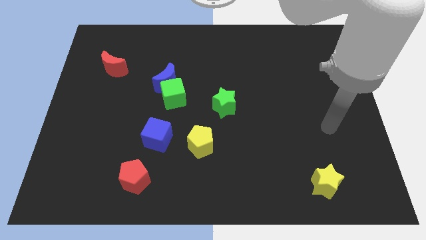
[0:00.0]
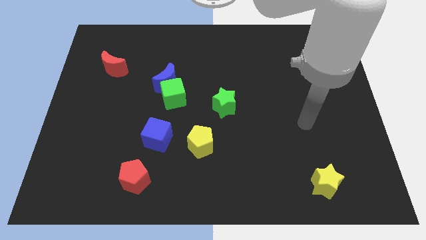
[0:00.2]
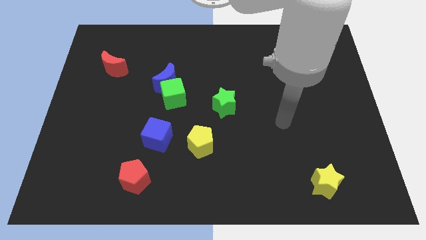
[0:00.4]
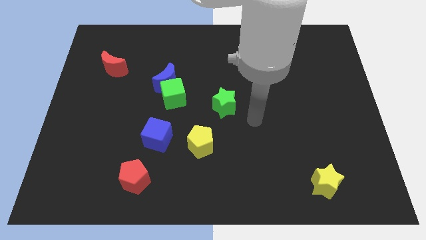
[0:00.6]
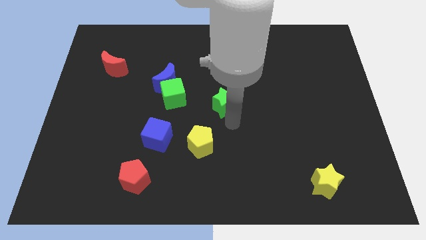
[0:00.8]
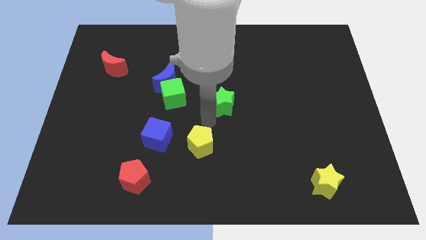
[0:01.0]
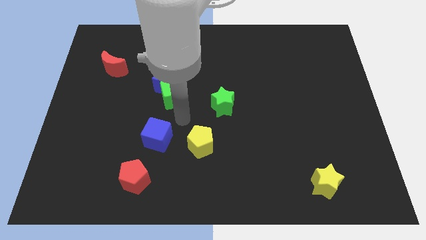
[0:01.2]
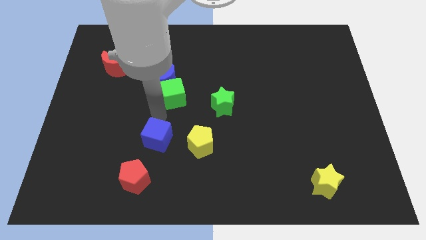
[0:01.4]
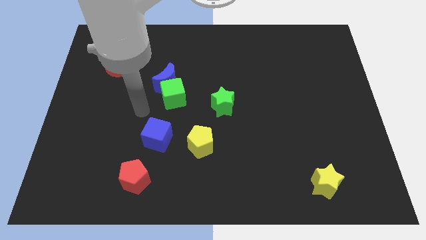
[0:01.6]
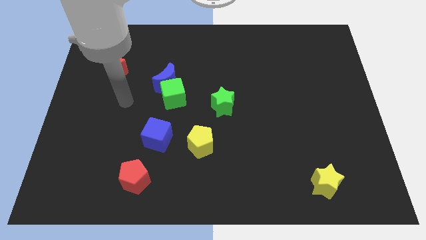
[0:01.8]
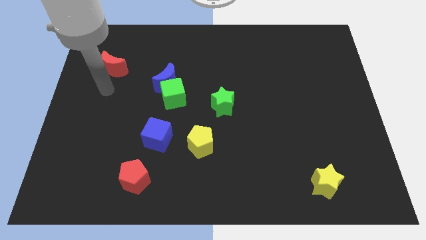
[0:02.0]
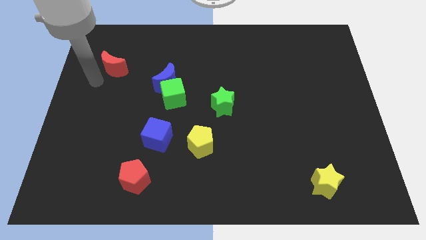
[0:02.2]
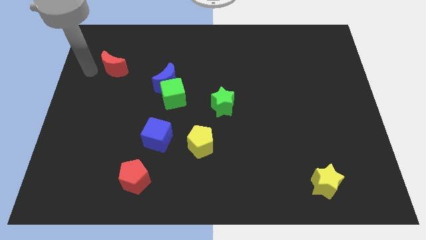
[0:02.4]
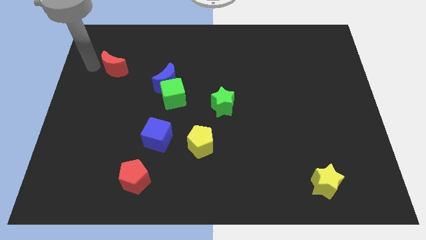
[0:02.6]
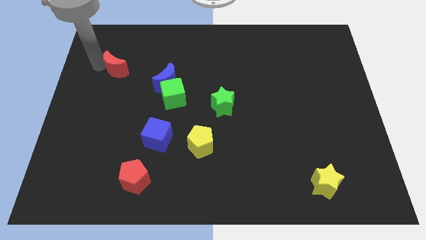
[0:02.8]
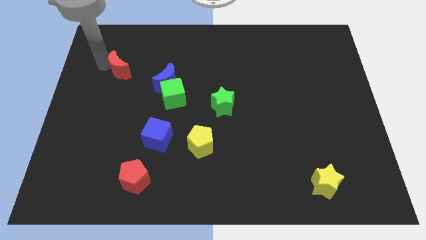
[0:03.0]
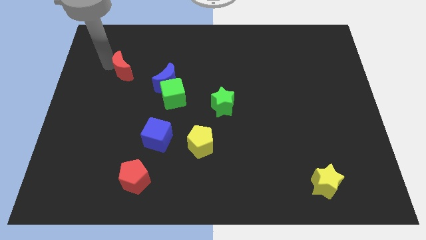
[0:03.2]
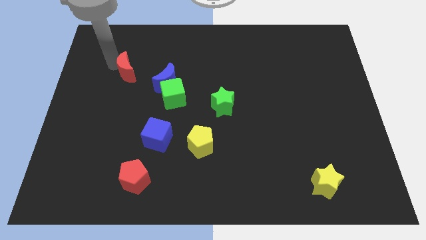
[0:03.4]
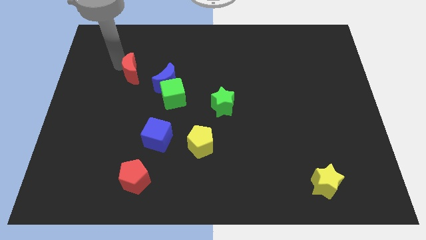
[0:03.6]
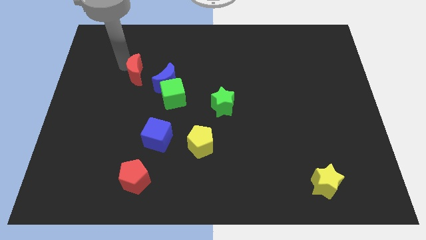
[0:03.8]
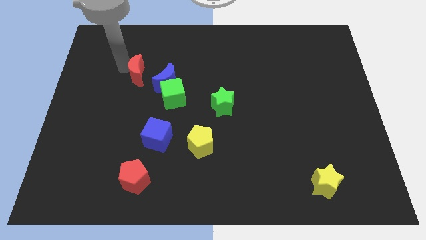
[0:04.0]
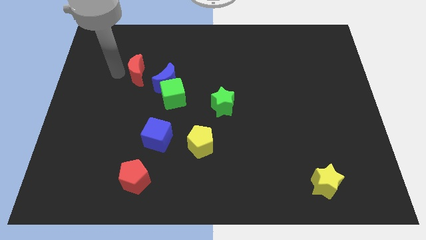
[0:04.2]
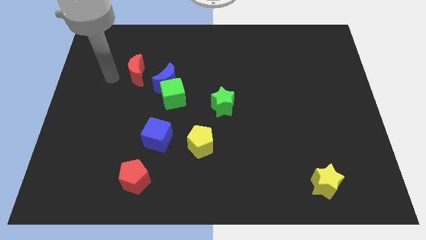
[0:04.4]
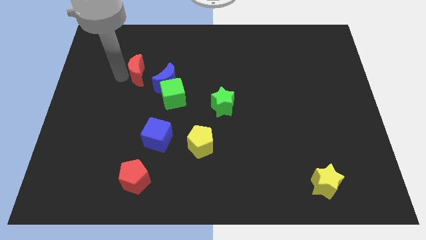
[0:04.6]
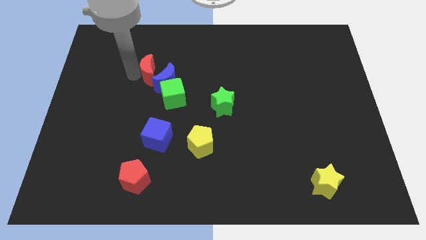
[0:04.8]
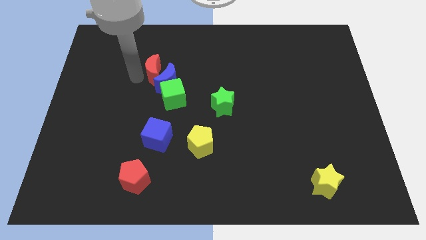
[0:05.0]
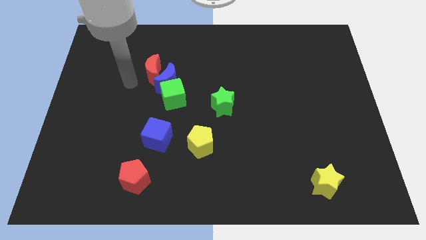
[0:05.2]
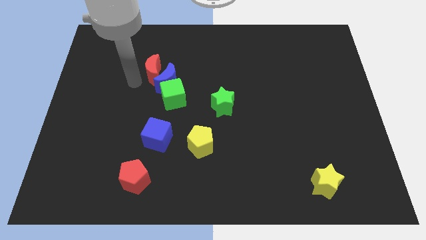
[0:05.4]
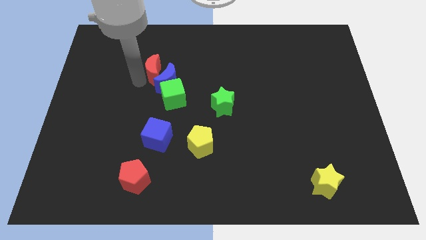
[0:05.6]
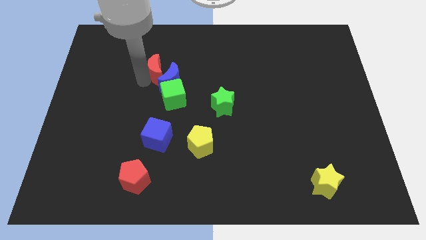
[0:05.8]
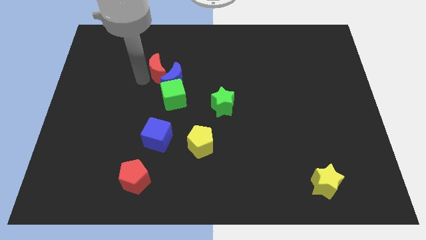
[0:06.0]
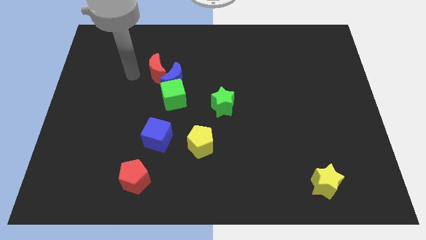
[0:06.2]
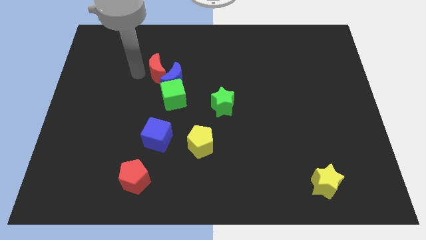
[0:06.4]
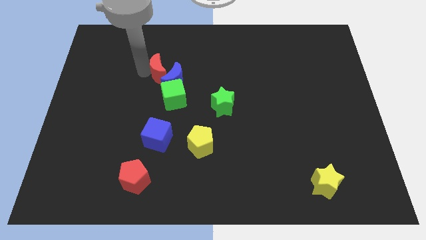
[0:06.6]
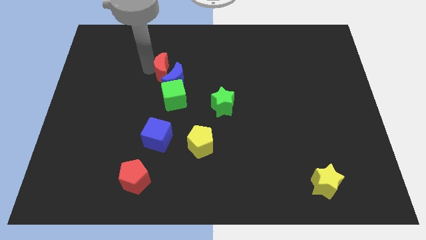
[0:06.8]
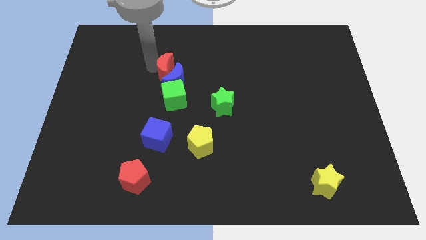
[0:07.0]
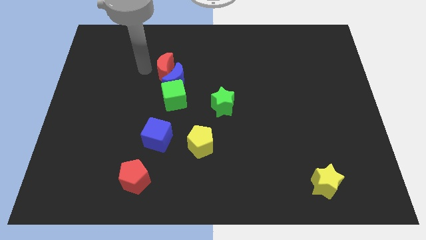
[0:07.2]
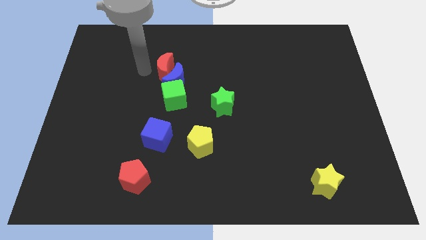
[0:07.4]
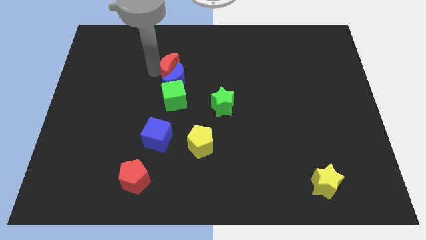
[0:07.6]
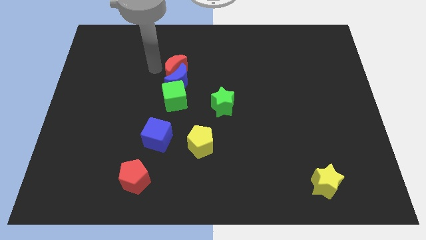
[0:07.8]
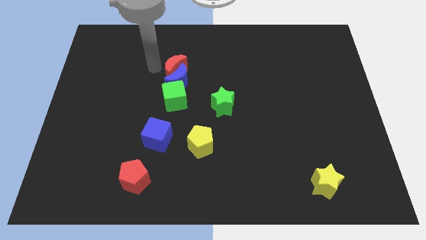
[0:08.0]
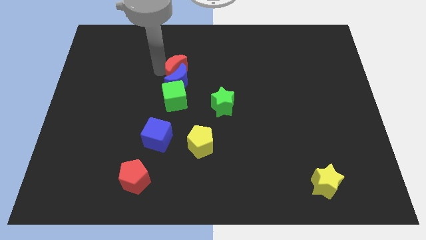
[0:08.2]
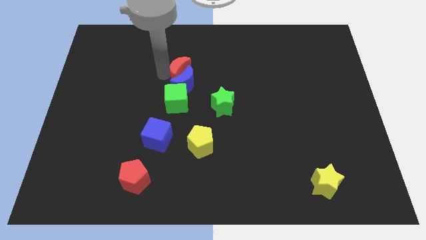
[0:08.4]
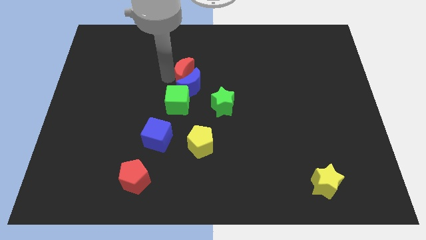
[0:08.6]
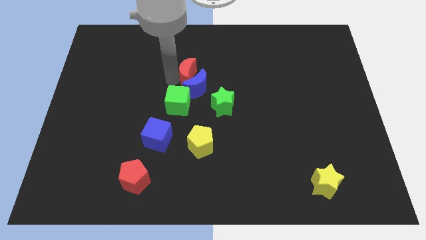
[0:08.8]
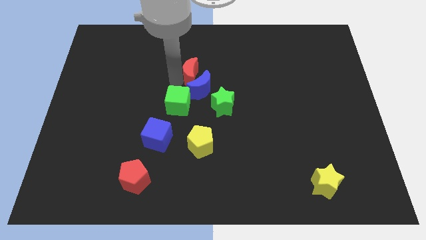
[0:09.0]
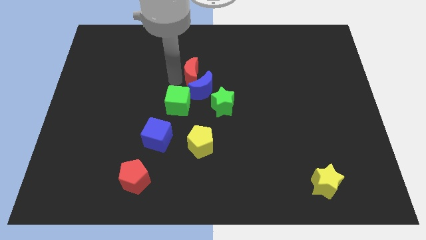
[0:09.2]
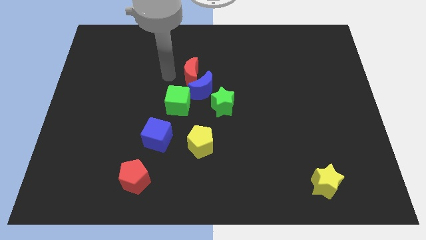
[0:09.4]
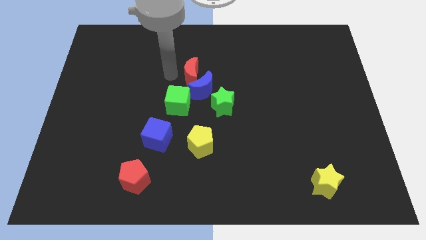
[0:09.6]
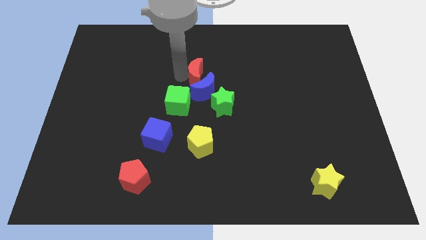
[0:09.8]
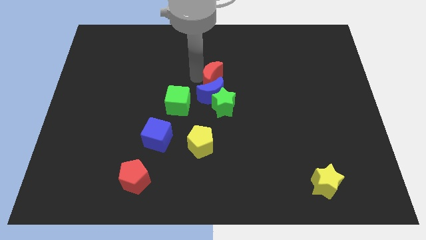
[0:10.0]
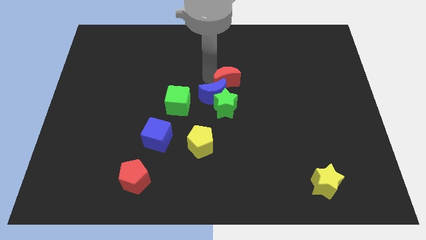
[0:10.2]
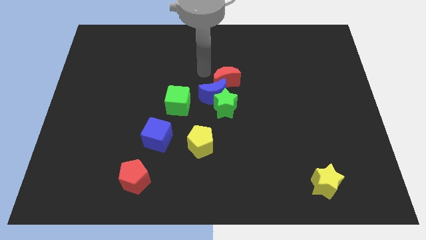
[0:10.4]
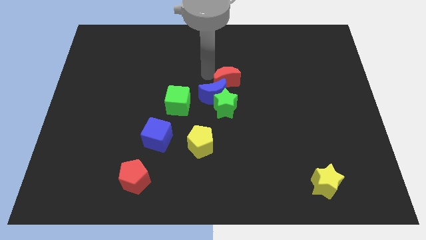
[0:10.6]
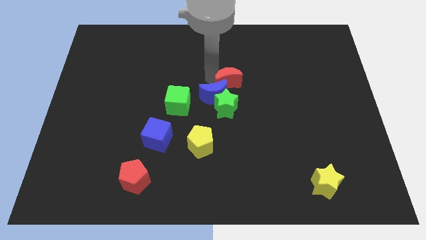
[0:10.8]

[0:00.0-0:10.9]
slide the red moon to the top right of the green star

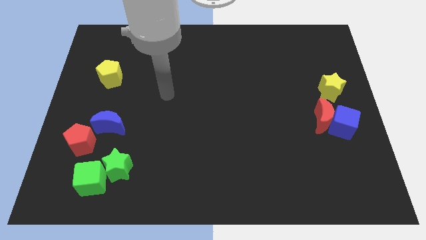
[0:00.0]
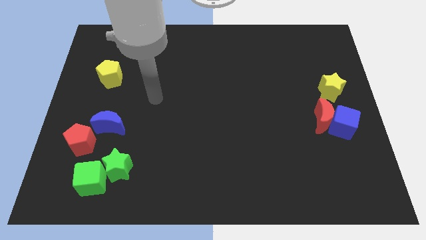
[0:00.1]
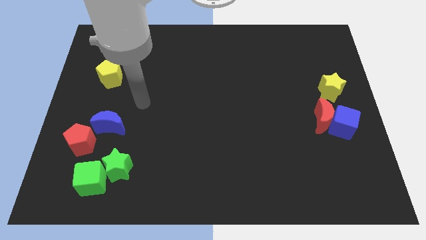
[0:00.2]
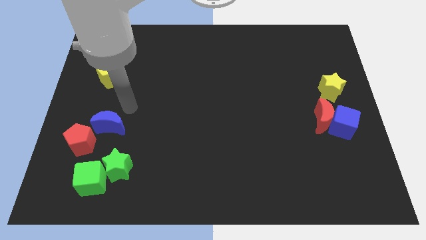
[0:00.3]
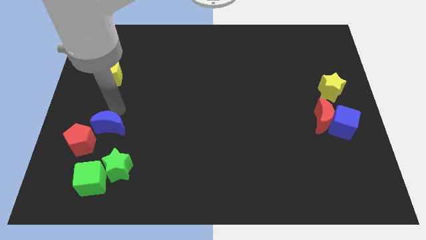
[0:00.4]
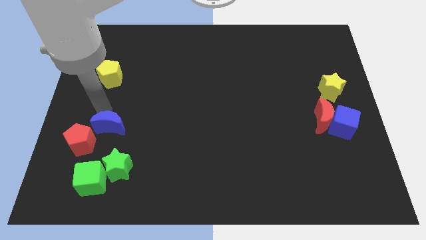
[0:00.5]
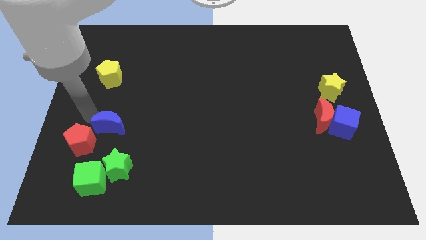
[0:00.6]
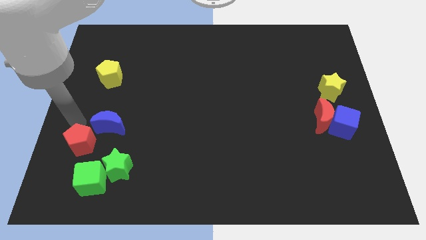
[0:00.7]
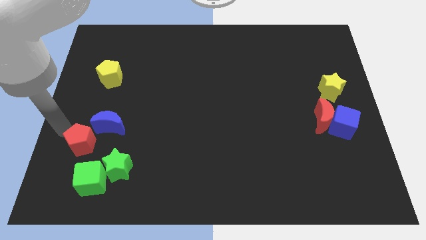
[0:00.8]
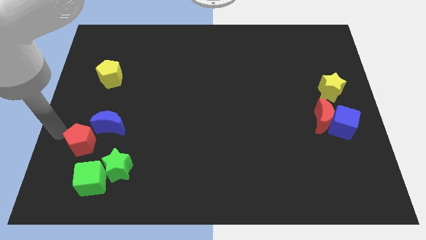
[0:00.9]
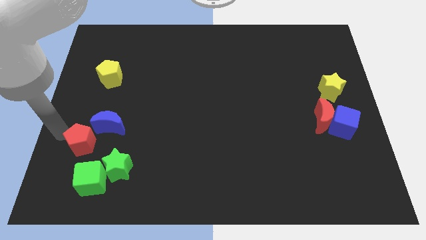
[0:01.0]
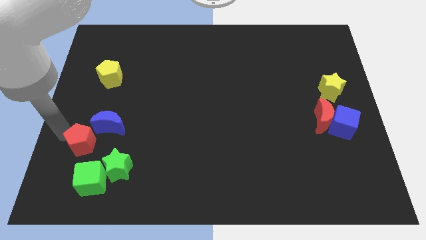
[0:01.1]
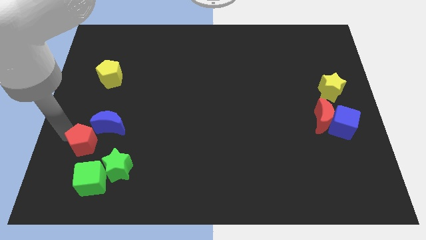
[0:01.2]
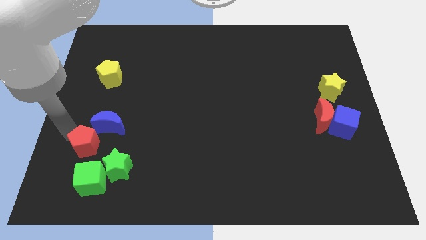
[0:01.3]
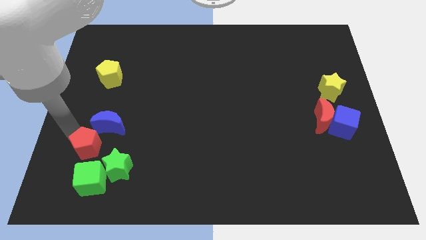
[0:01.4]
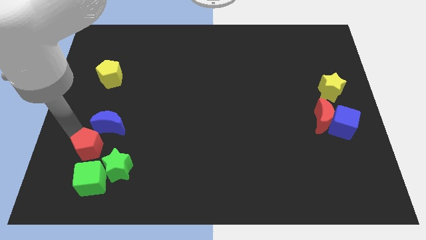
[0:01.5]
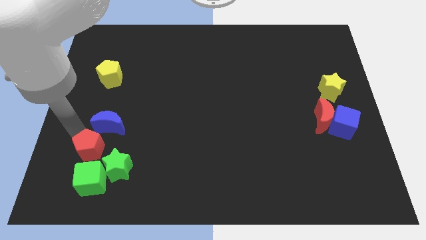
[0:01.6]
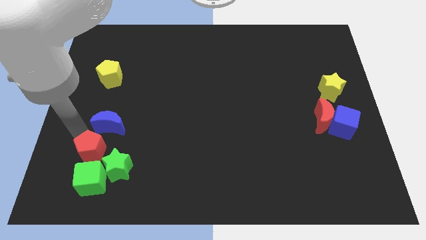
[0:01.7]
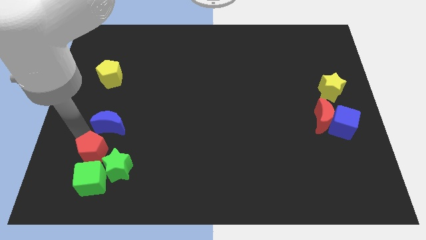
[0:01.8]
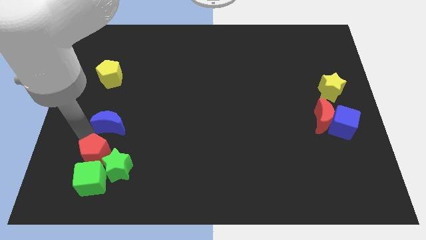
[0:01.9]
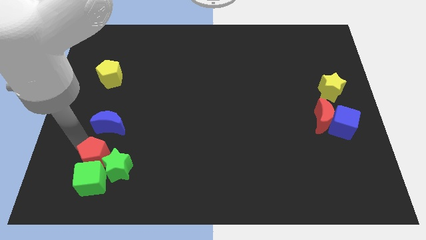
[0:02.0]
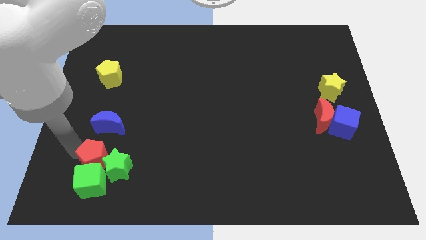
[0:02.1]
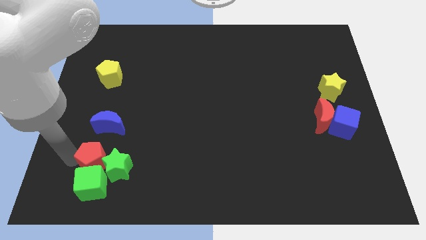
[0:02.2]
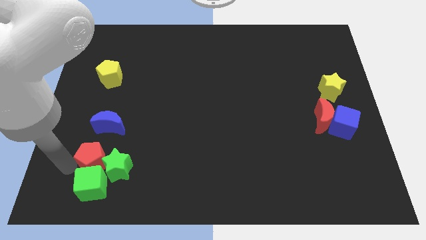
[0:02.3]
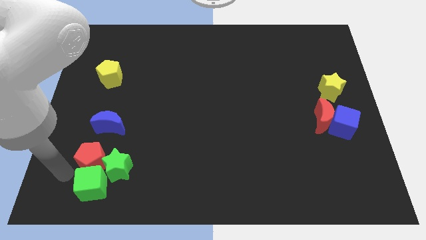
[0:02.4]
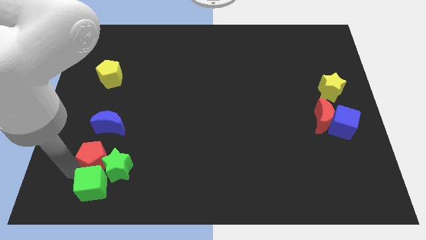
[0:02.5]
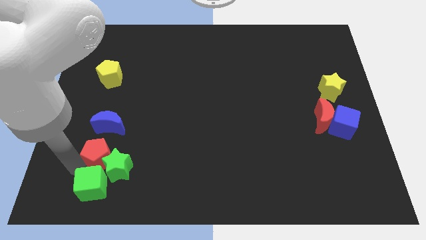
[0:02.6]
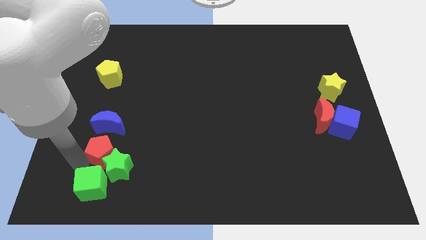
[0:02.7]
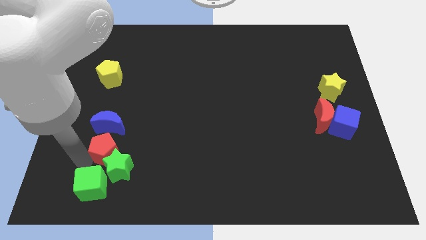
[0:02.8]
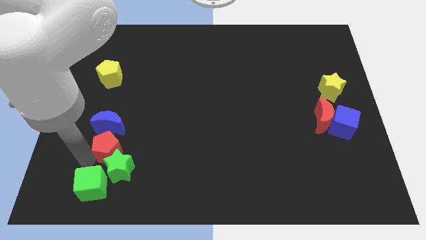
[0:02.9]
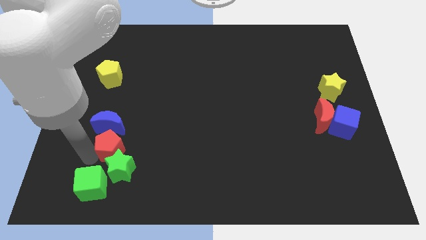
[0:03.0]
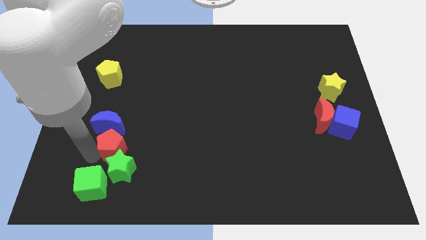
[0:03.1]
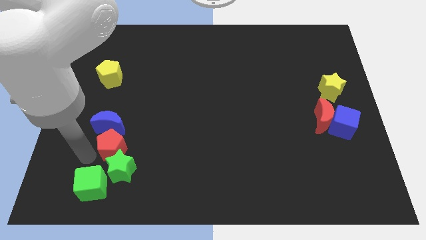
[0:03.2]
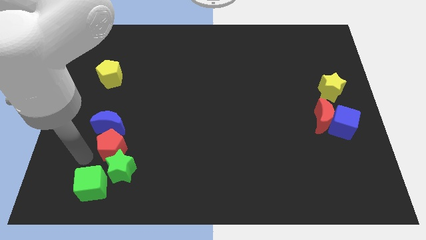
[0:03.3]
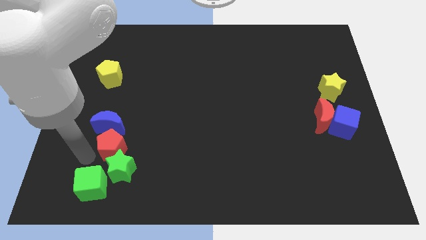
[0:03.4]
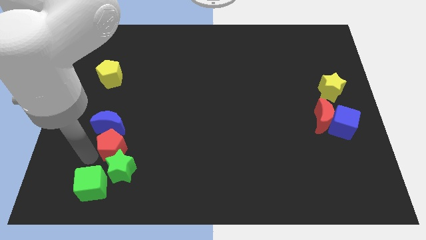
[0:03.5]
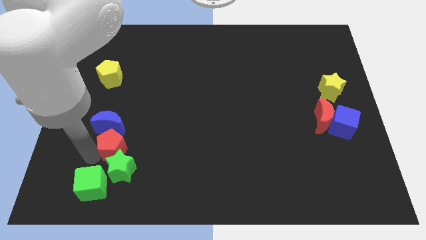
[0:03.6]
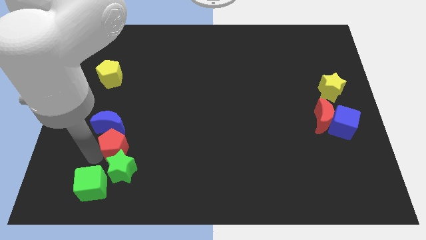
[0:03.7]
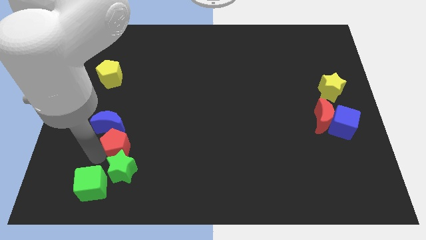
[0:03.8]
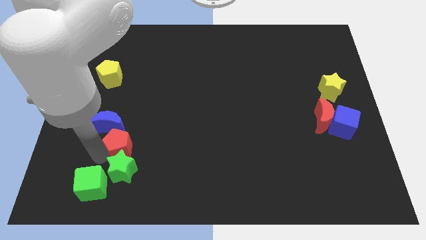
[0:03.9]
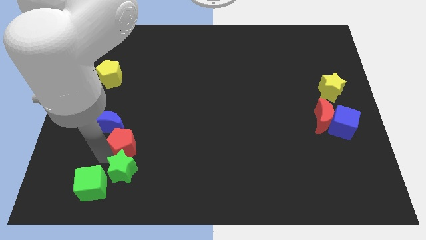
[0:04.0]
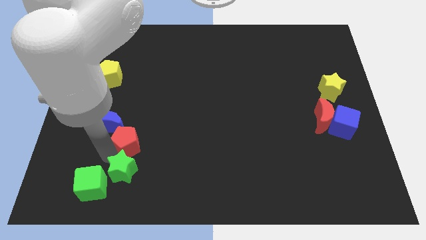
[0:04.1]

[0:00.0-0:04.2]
put the red pentagon to the right of the blue moon
